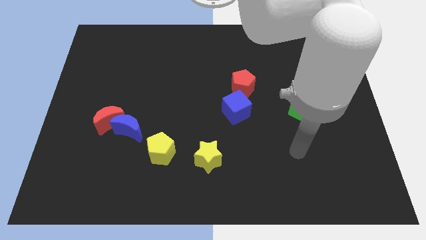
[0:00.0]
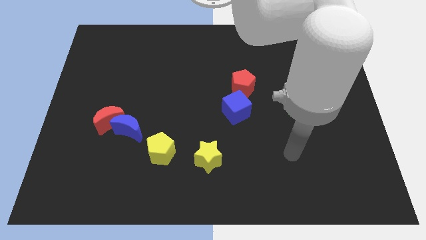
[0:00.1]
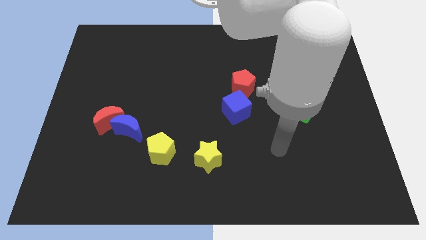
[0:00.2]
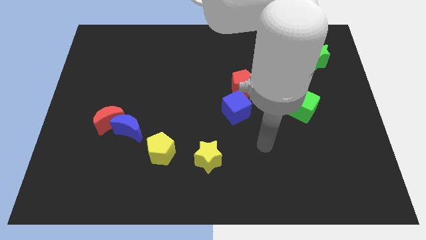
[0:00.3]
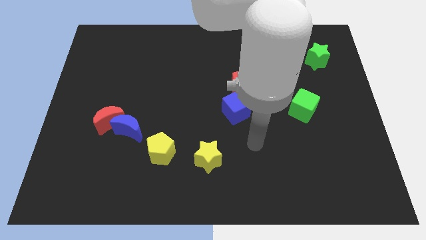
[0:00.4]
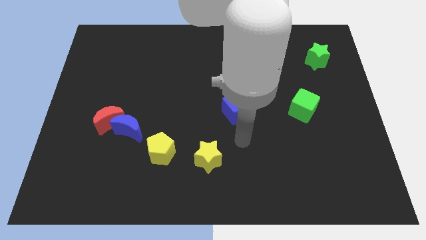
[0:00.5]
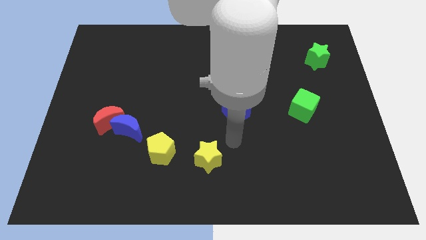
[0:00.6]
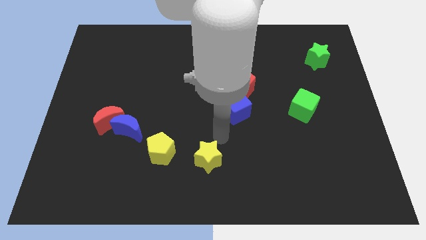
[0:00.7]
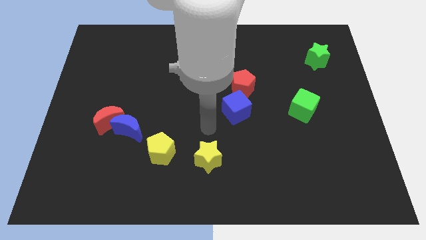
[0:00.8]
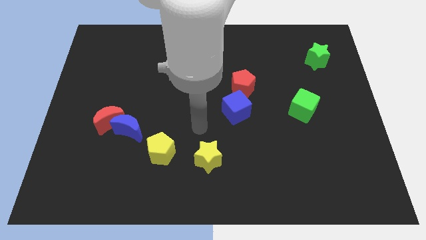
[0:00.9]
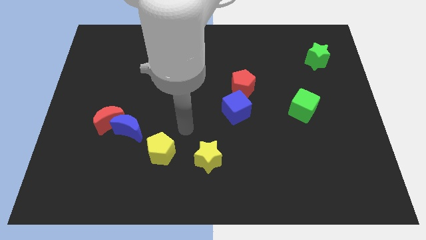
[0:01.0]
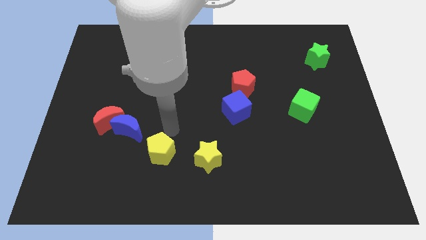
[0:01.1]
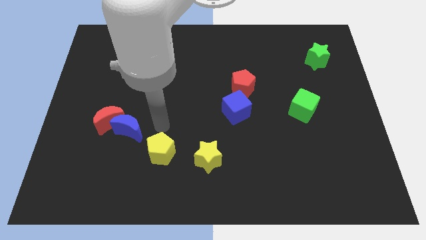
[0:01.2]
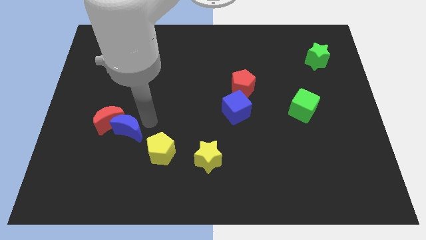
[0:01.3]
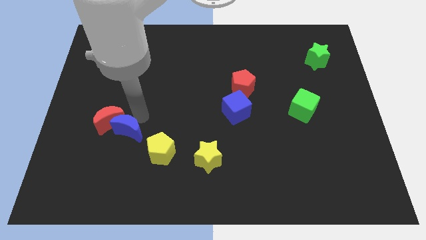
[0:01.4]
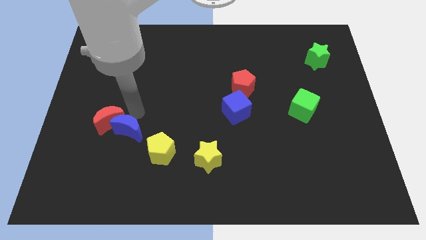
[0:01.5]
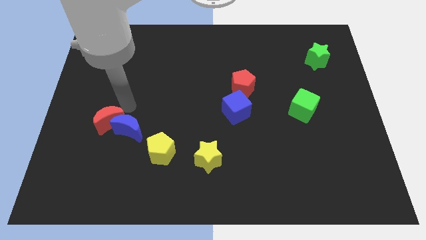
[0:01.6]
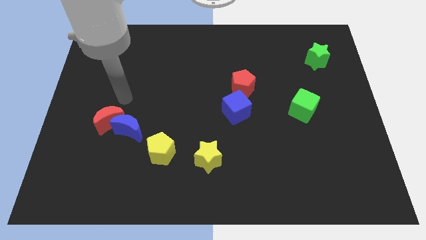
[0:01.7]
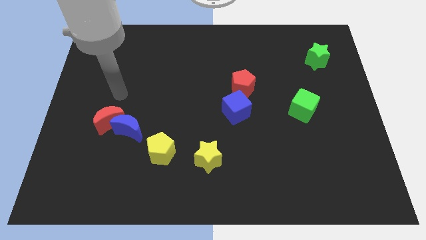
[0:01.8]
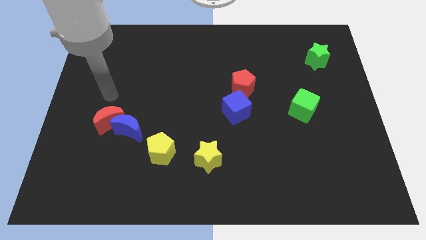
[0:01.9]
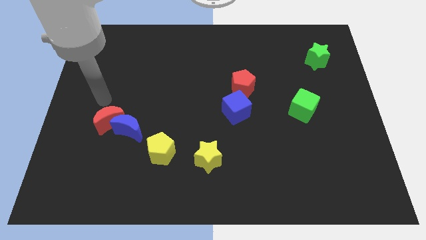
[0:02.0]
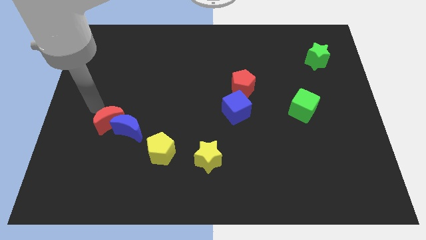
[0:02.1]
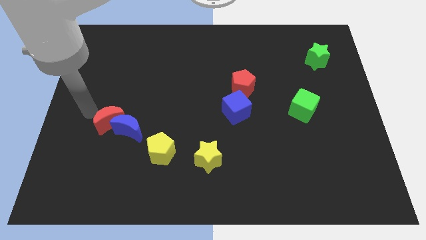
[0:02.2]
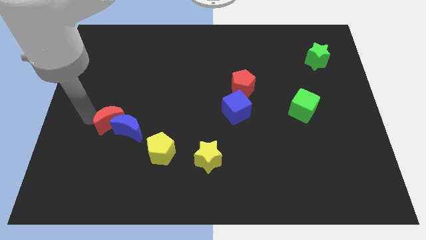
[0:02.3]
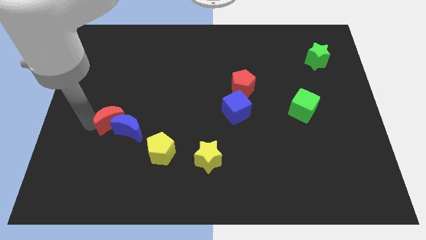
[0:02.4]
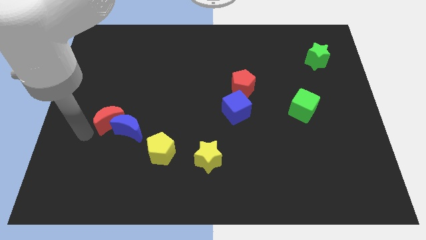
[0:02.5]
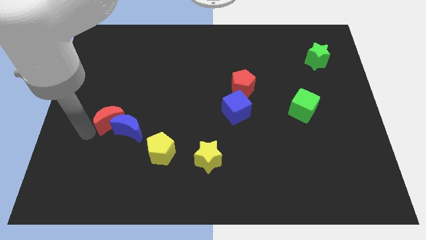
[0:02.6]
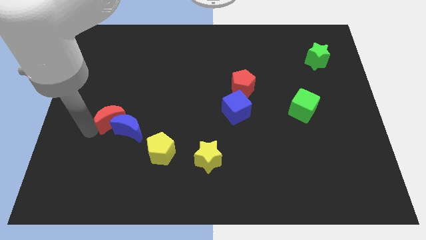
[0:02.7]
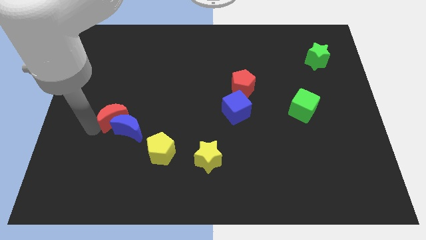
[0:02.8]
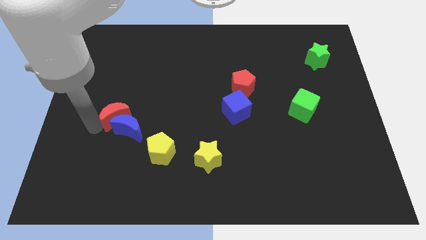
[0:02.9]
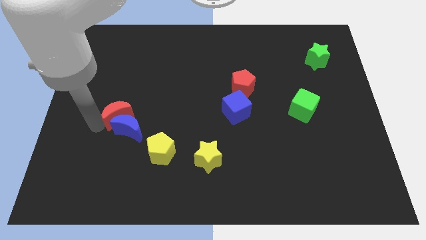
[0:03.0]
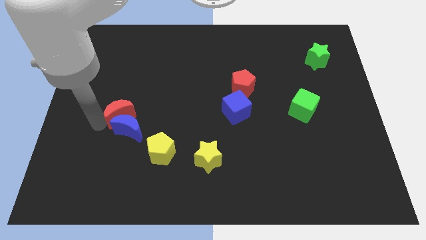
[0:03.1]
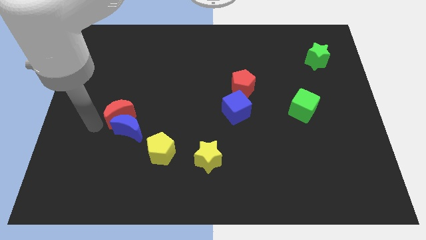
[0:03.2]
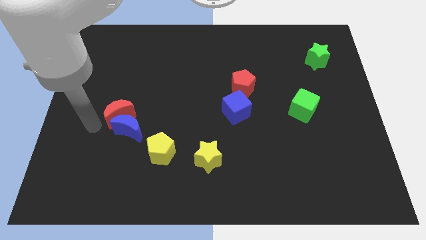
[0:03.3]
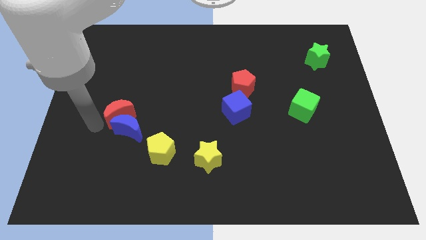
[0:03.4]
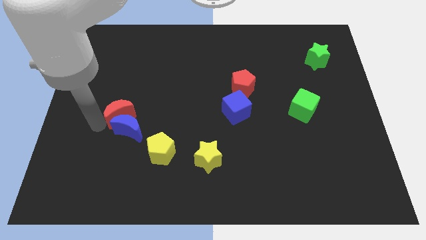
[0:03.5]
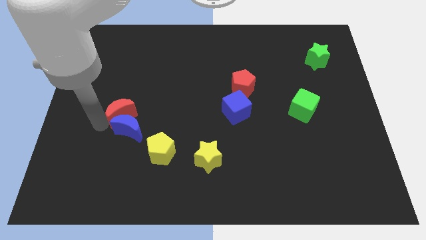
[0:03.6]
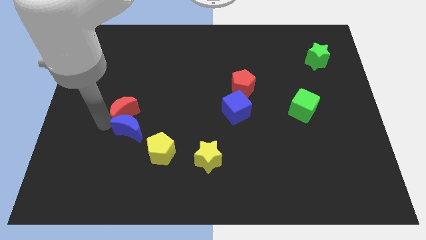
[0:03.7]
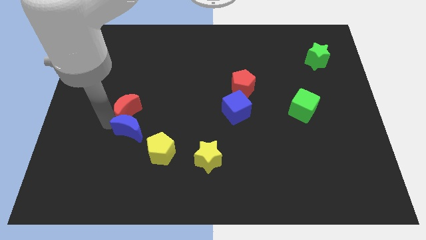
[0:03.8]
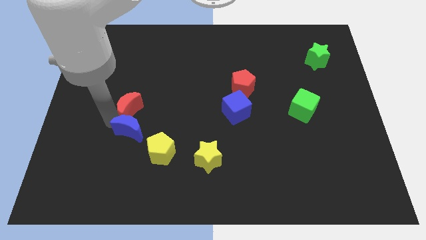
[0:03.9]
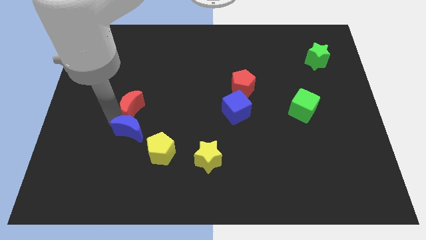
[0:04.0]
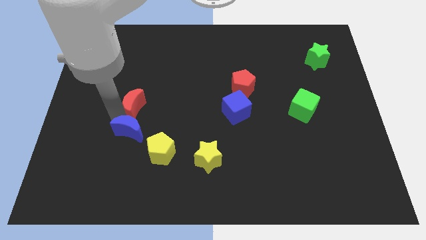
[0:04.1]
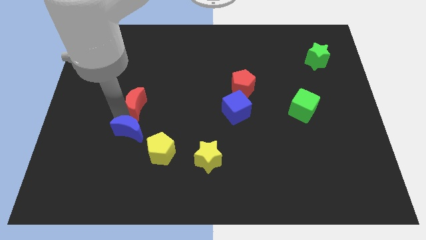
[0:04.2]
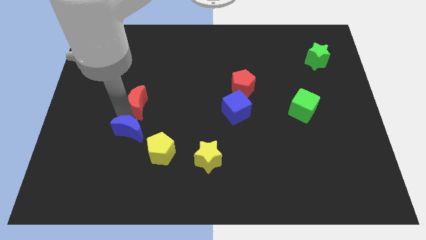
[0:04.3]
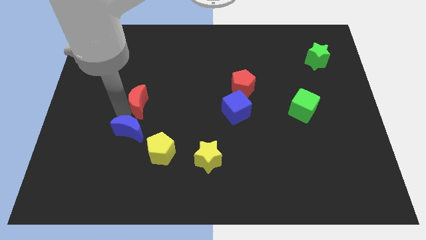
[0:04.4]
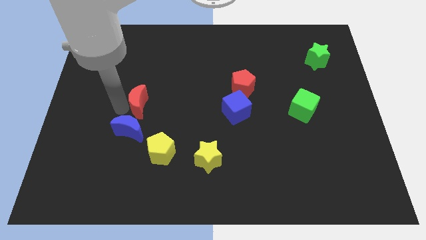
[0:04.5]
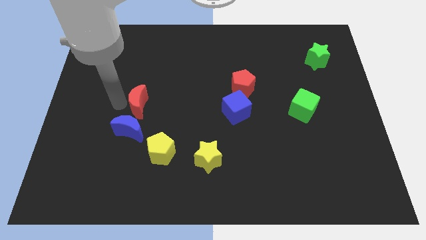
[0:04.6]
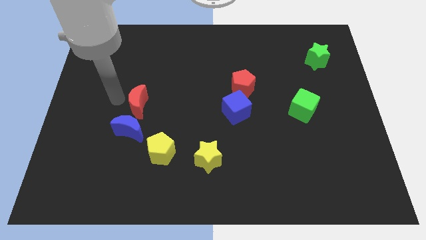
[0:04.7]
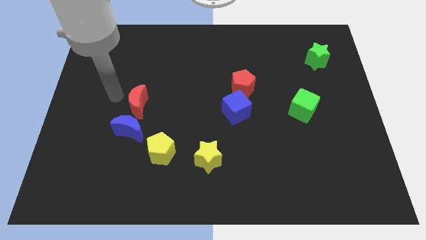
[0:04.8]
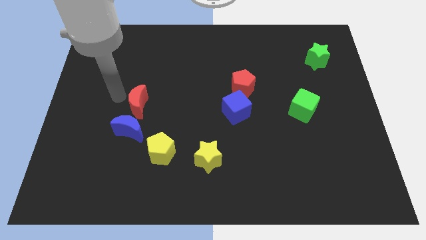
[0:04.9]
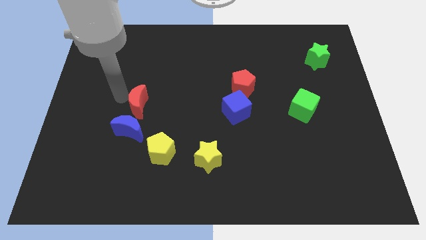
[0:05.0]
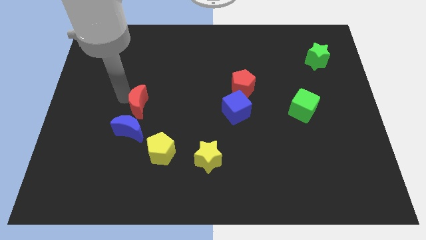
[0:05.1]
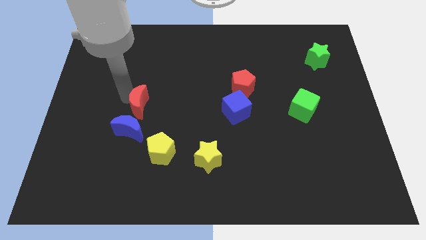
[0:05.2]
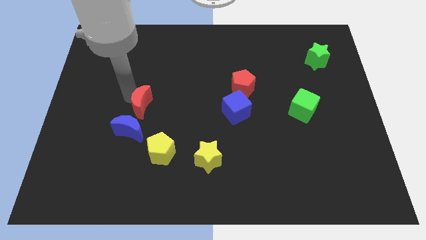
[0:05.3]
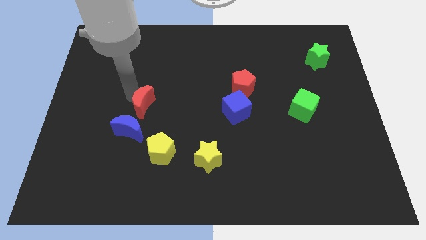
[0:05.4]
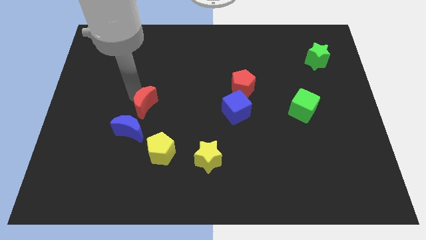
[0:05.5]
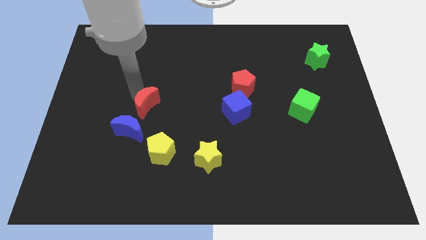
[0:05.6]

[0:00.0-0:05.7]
move the red moon to the right somewhat

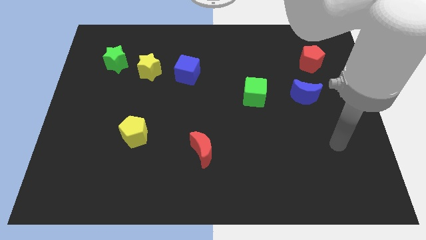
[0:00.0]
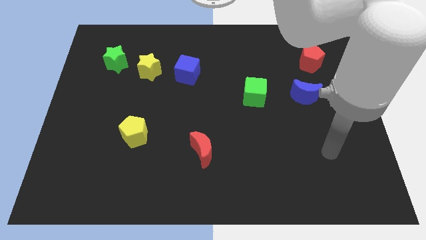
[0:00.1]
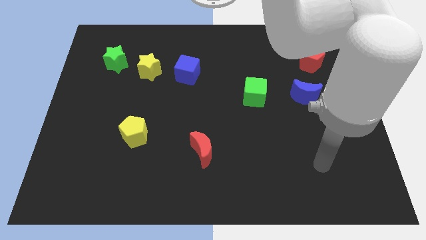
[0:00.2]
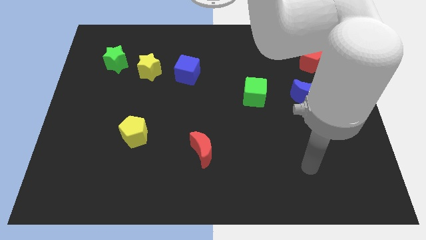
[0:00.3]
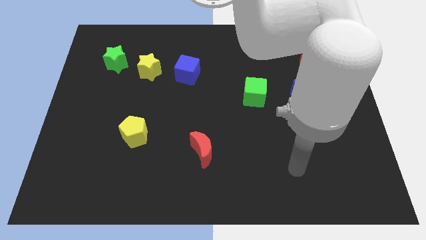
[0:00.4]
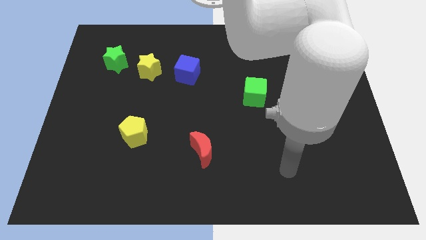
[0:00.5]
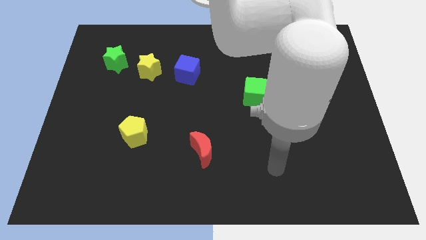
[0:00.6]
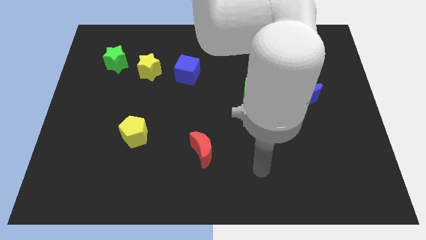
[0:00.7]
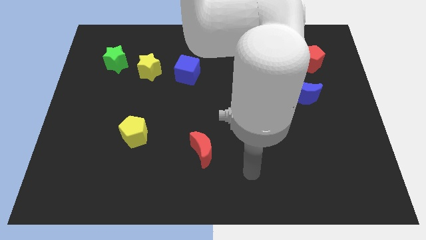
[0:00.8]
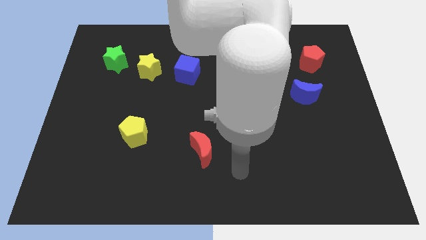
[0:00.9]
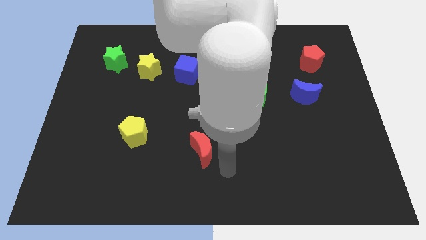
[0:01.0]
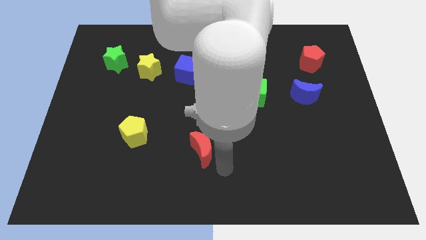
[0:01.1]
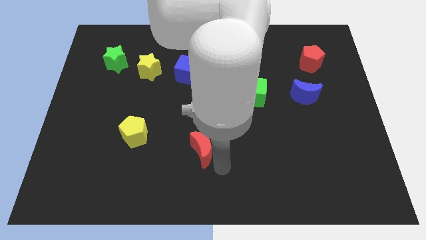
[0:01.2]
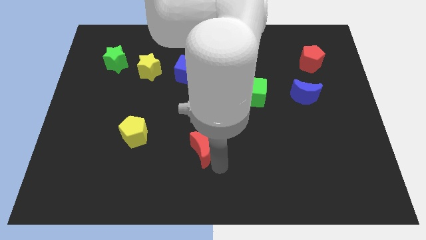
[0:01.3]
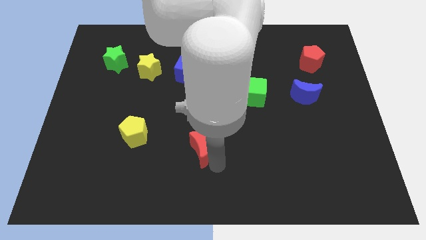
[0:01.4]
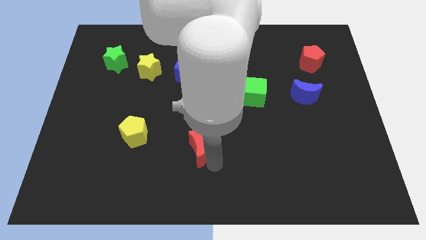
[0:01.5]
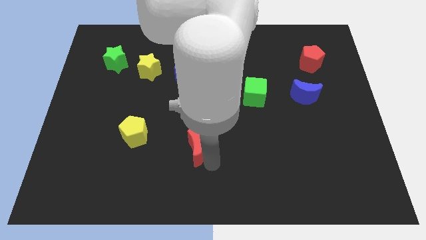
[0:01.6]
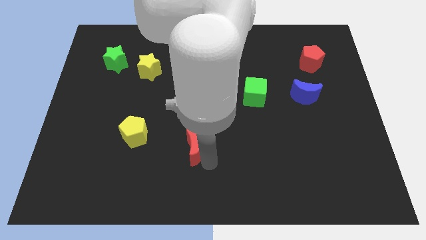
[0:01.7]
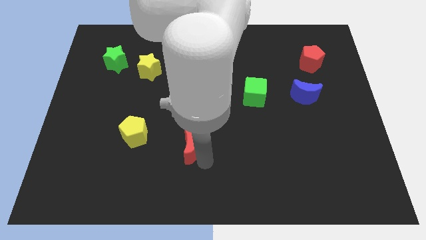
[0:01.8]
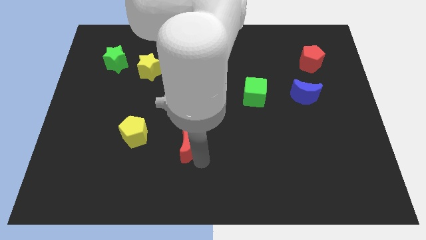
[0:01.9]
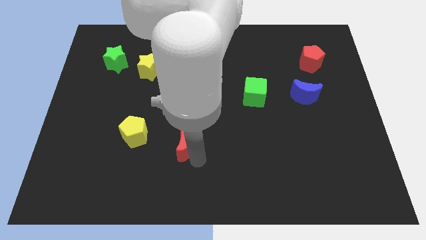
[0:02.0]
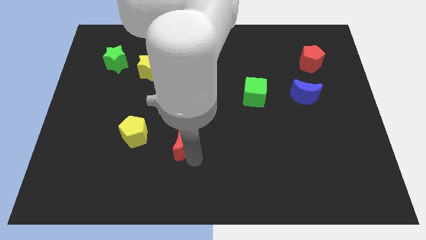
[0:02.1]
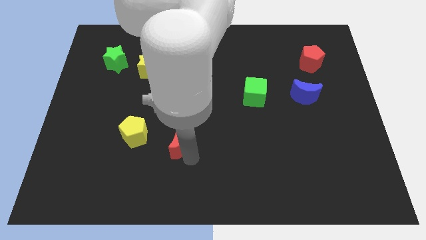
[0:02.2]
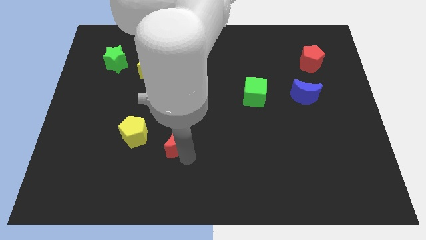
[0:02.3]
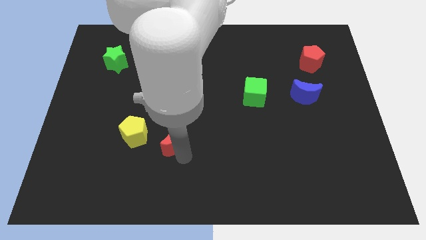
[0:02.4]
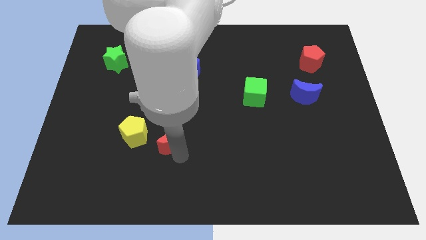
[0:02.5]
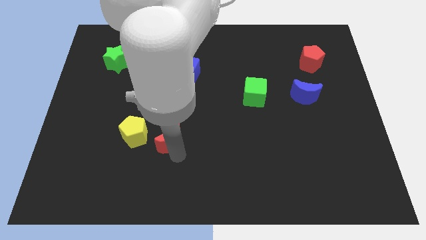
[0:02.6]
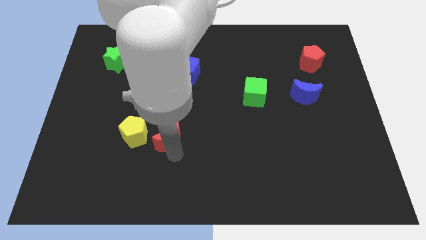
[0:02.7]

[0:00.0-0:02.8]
push the red moon a bit upwards and then to the left
